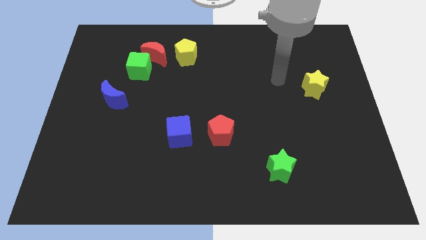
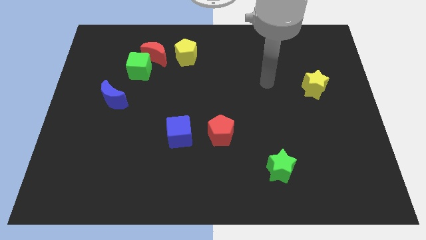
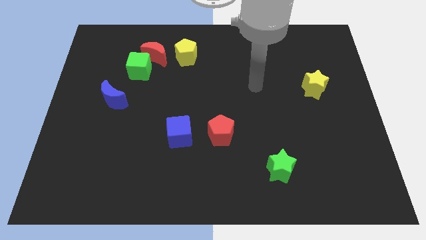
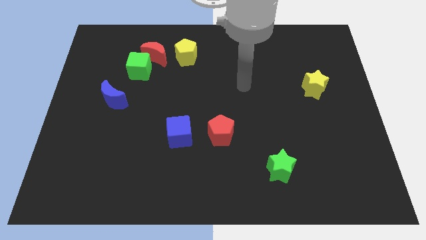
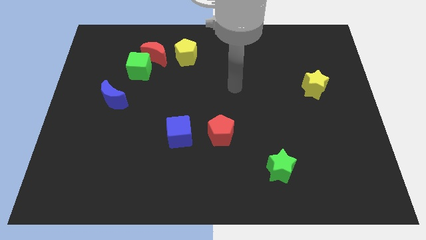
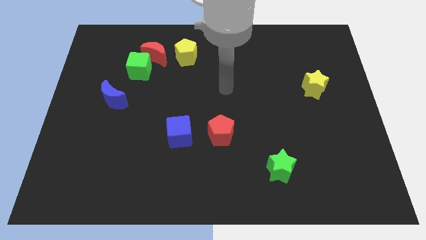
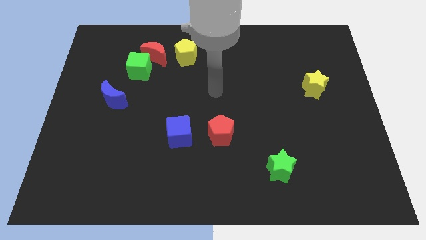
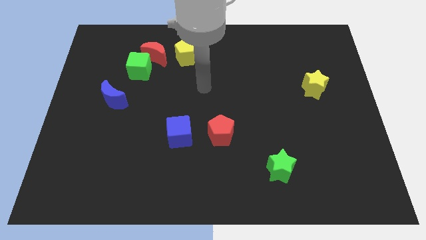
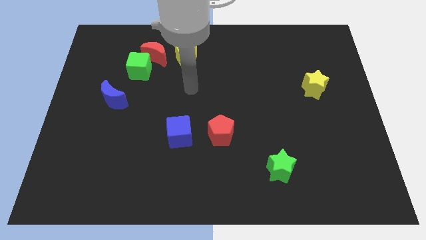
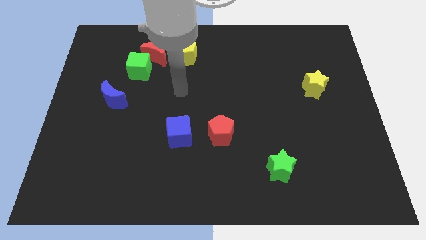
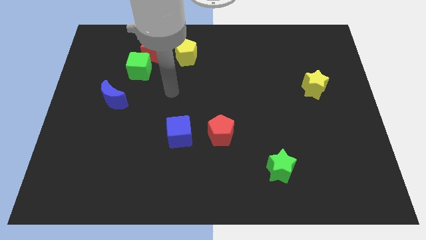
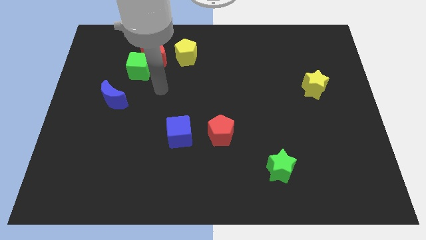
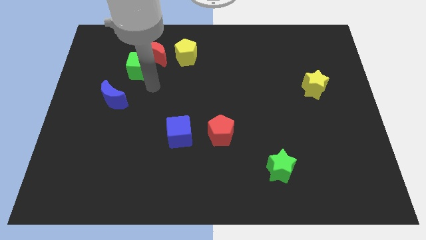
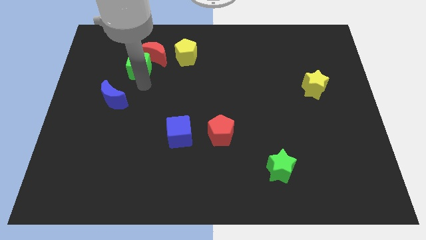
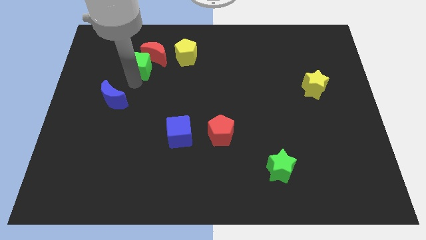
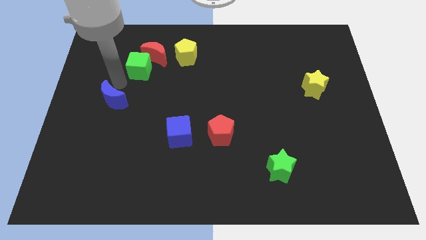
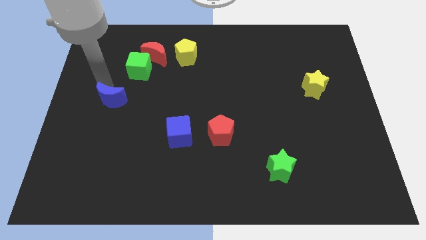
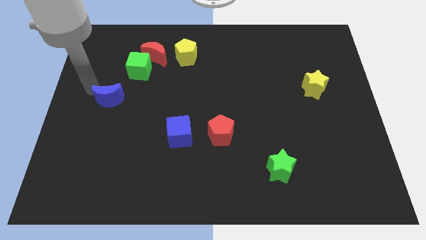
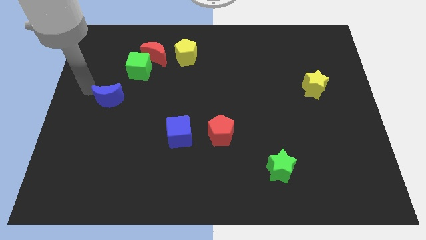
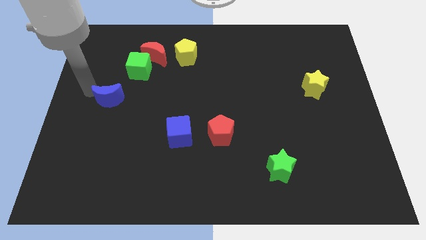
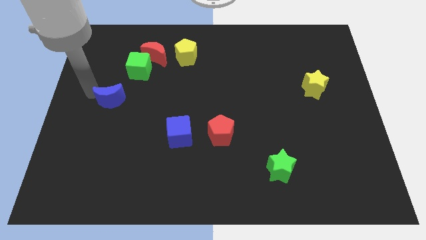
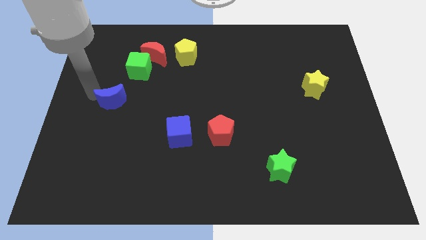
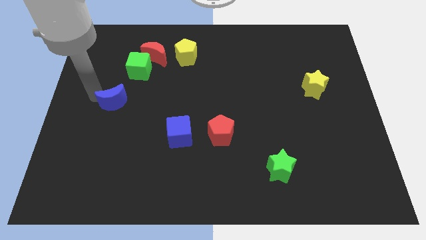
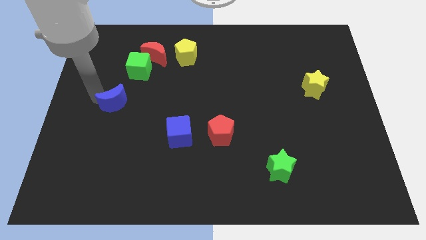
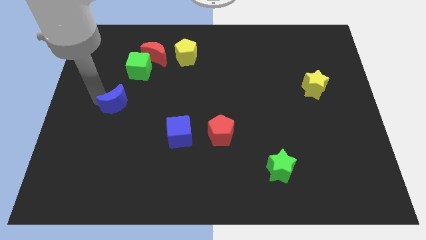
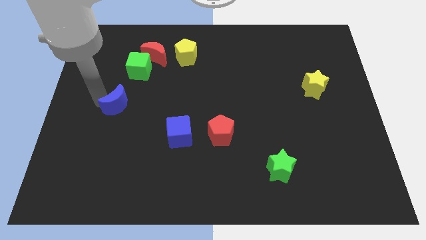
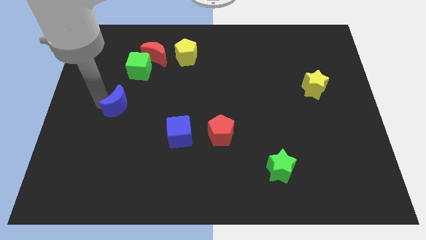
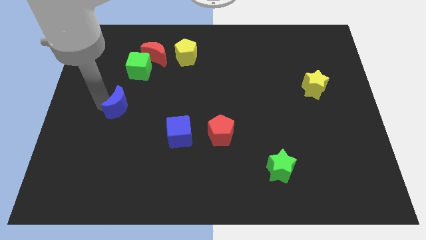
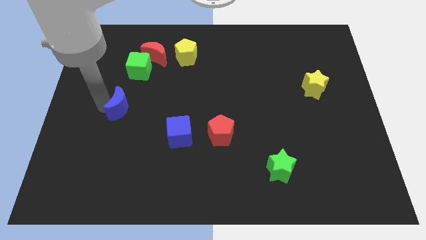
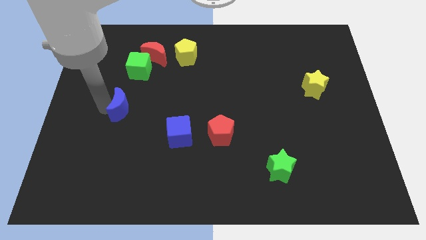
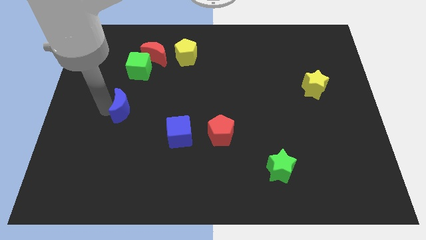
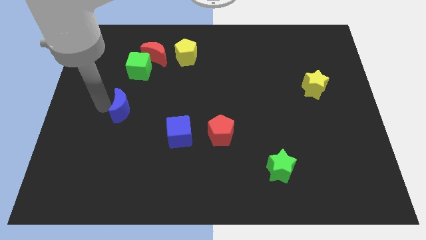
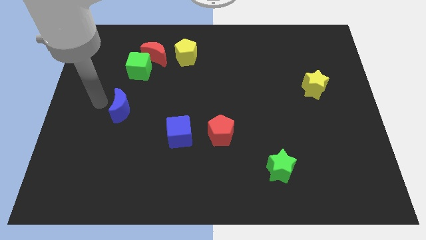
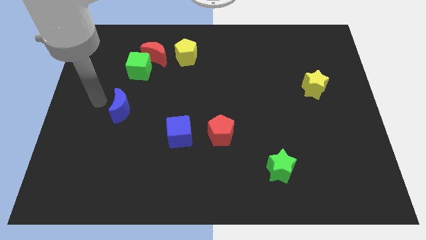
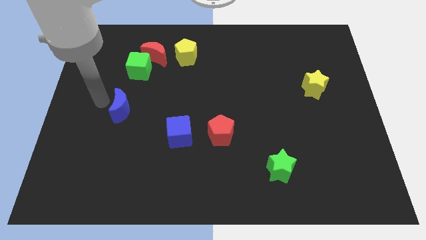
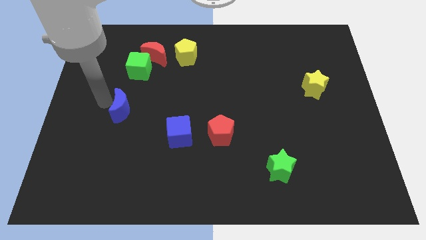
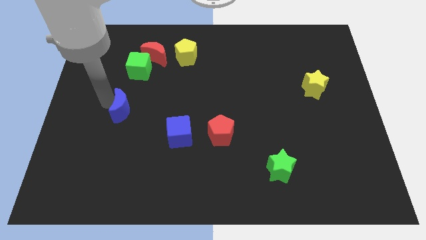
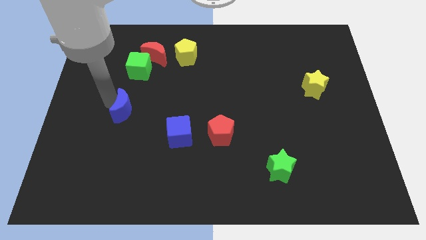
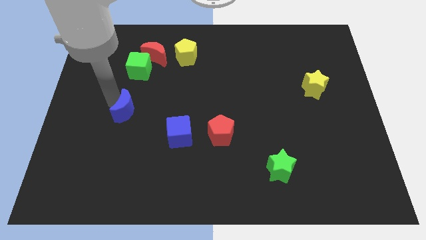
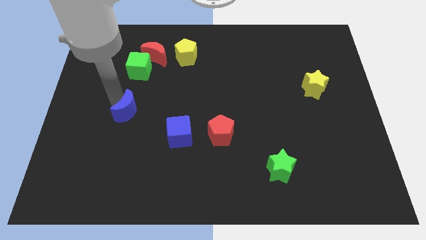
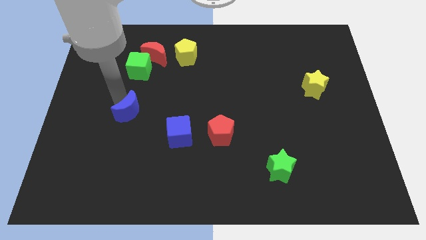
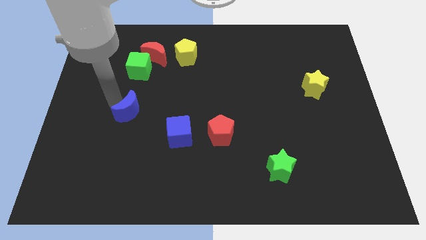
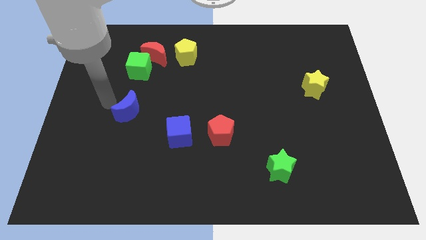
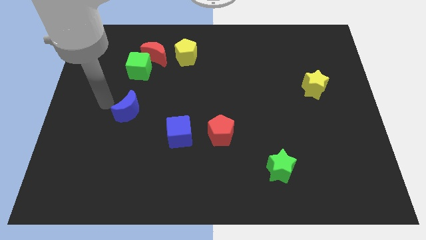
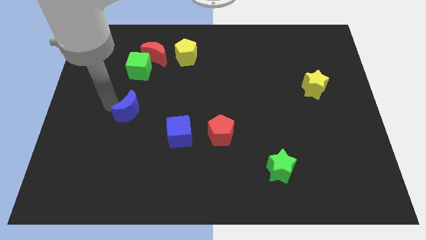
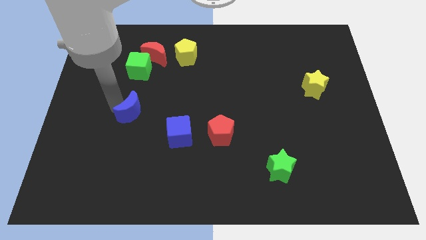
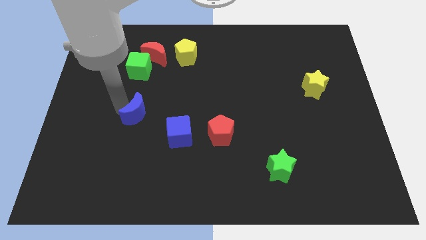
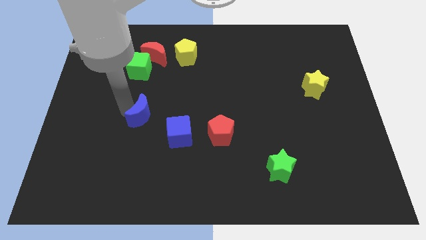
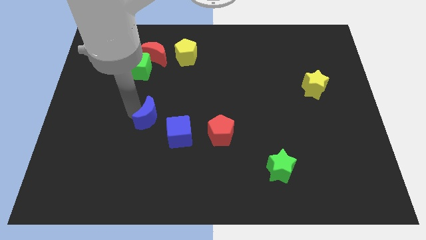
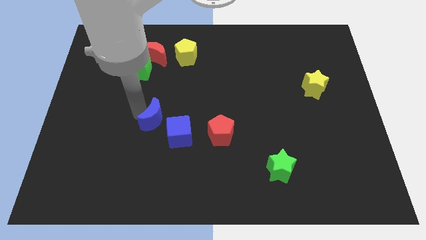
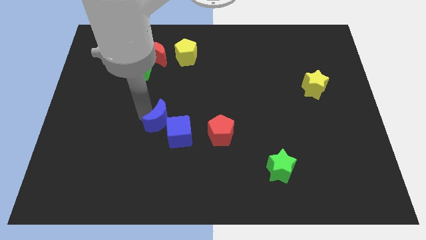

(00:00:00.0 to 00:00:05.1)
push the blue moon next to the blue cube

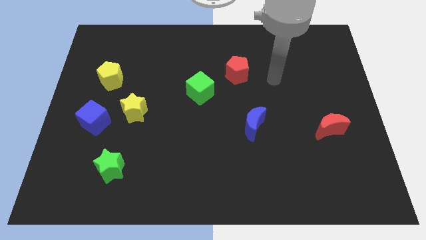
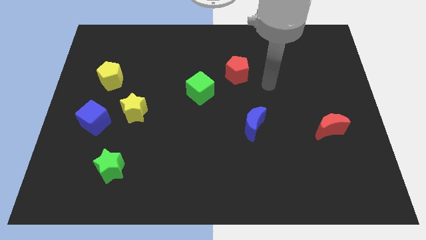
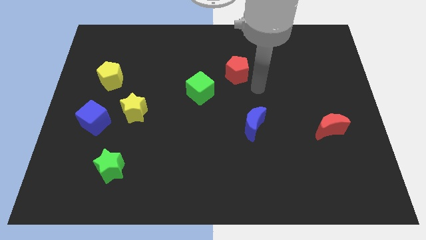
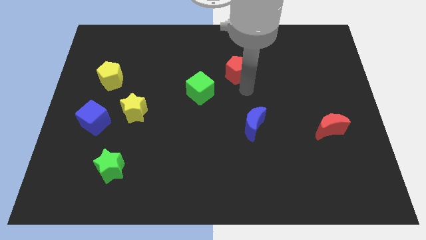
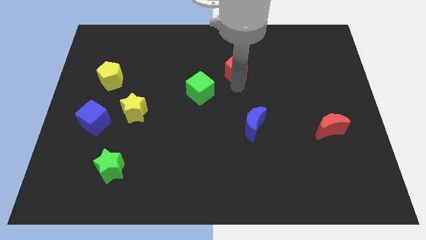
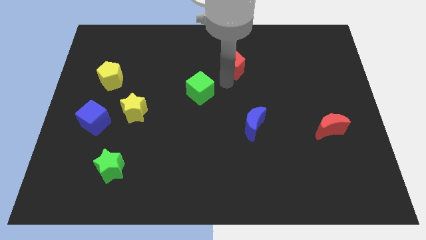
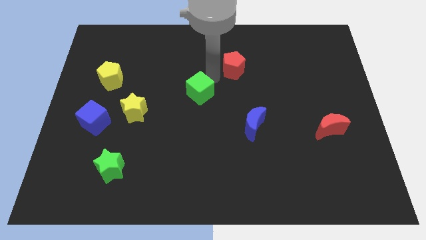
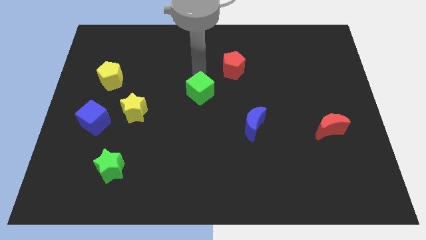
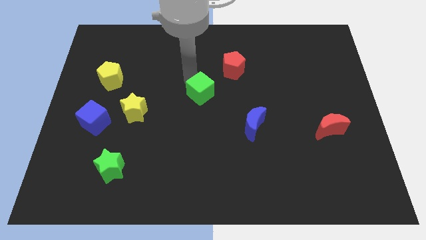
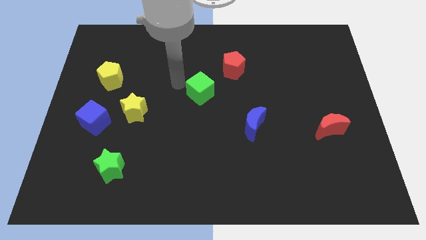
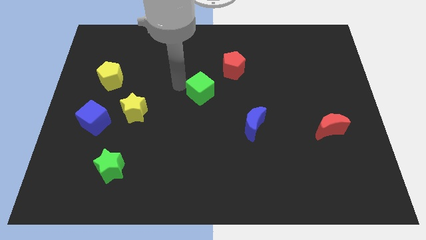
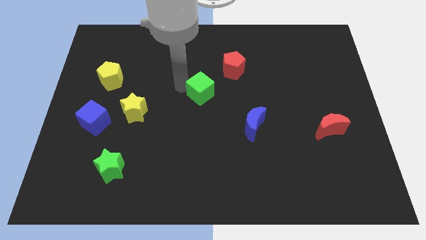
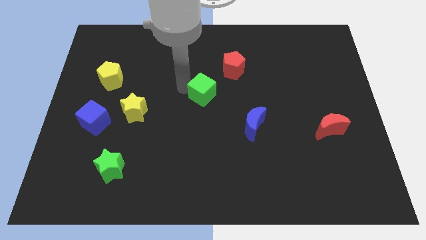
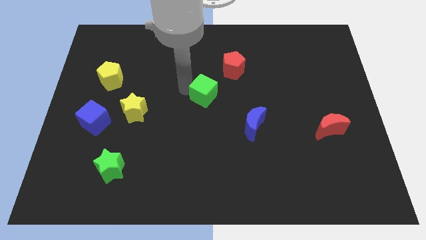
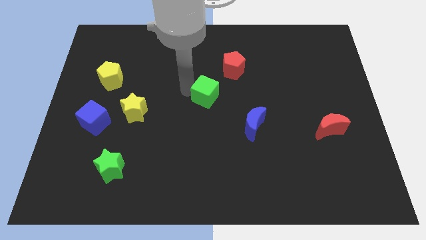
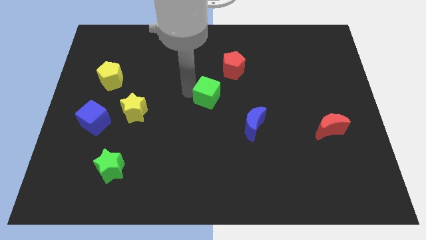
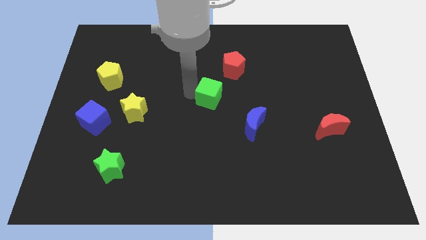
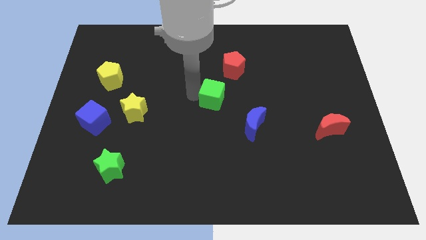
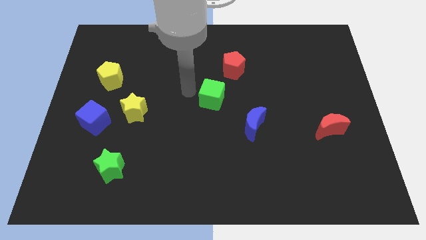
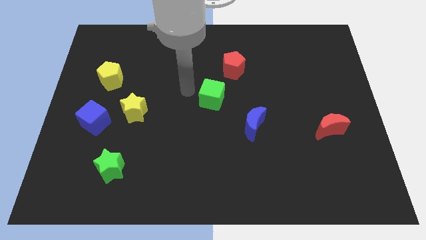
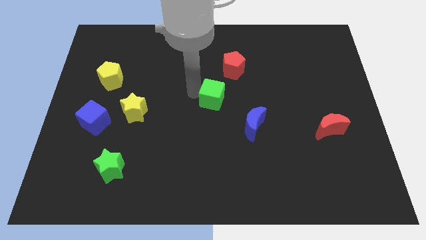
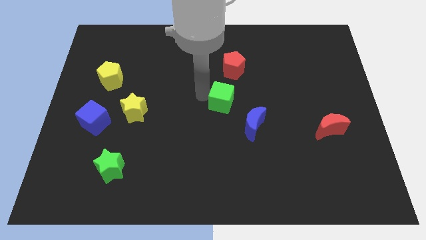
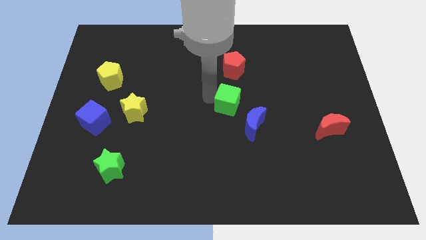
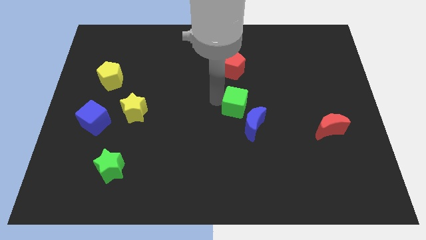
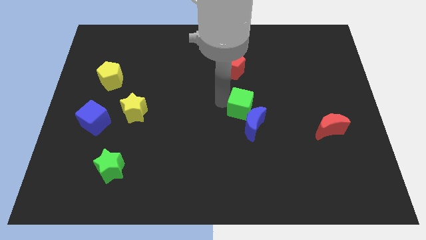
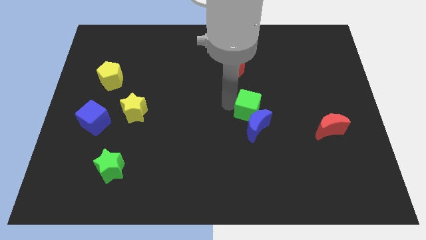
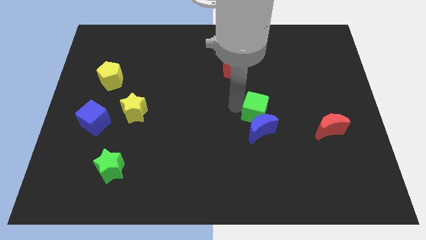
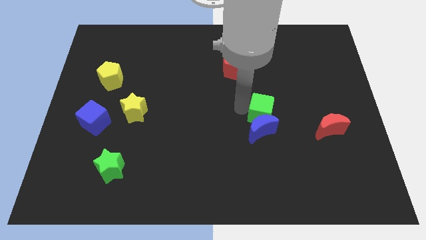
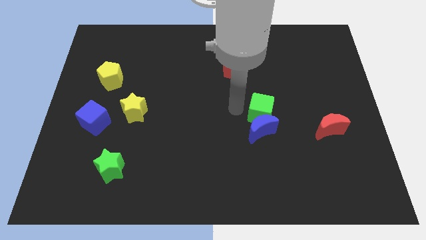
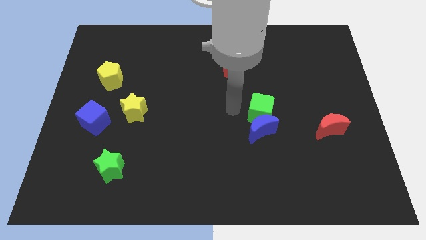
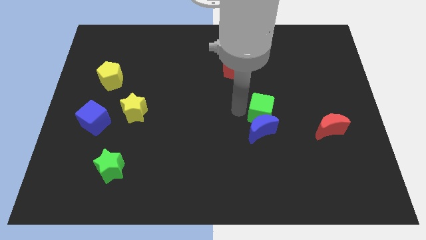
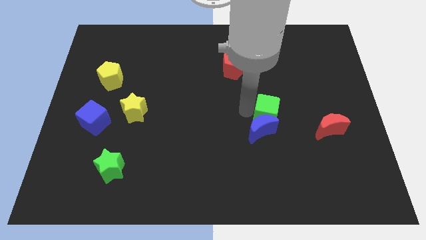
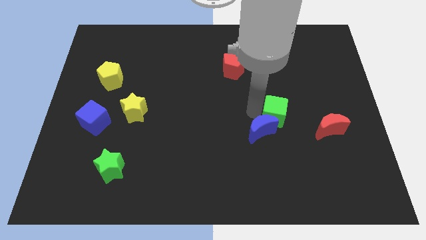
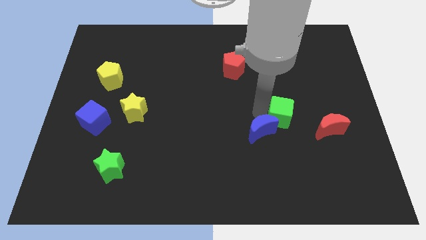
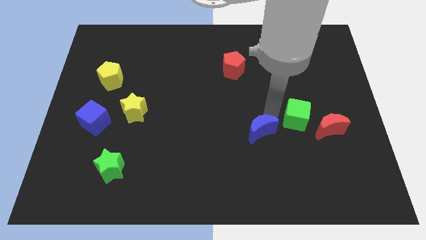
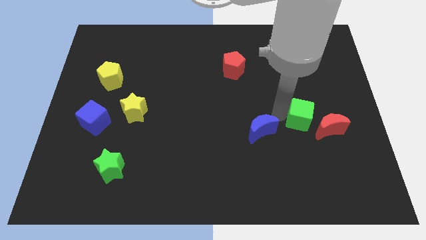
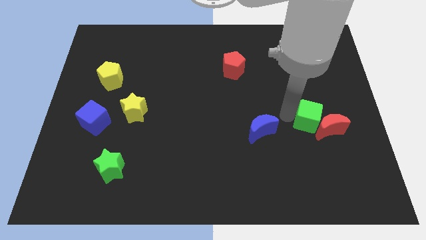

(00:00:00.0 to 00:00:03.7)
push the green cube towards the red moon
